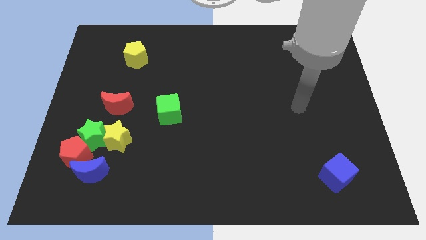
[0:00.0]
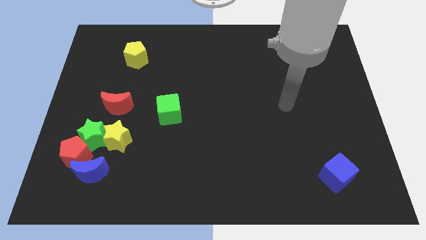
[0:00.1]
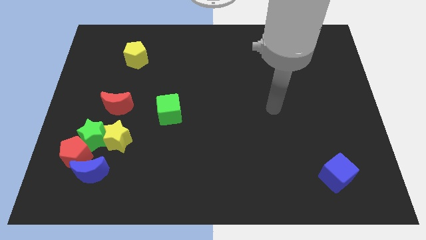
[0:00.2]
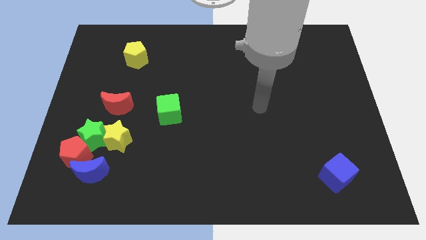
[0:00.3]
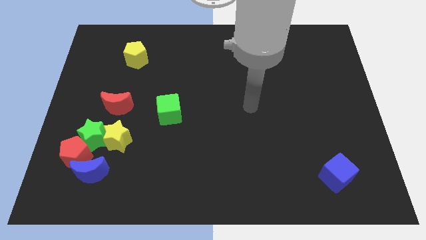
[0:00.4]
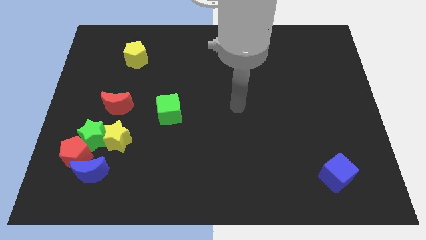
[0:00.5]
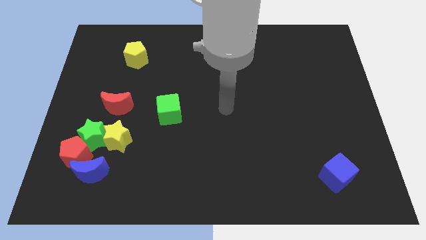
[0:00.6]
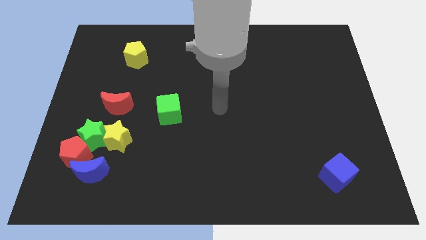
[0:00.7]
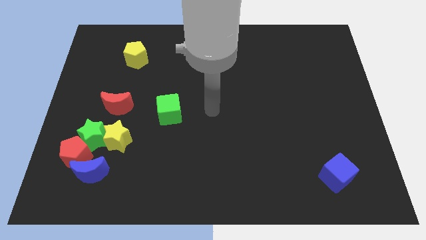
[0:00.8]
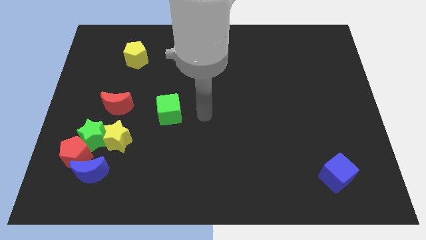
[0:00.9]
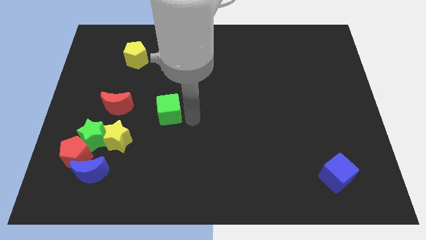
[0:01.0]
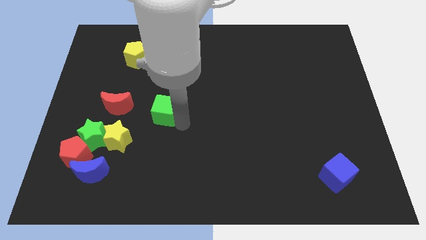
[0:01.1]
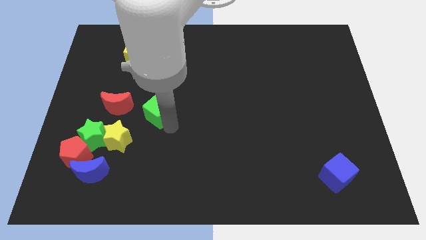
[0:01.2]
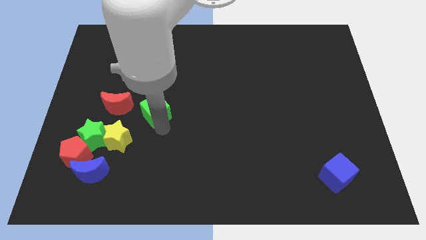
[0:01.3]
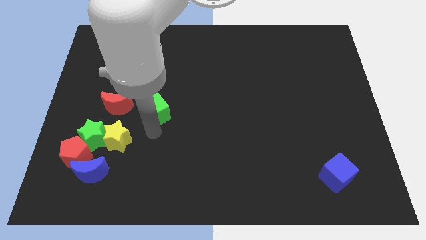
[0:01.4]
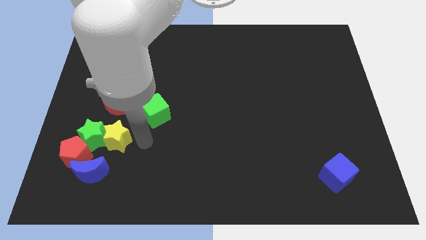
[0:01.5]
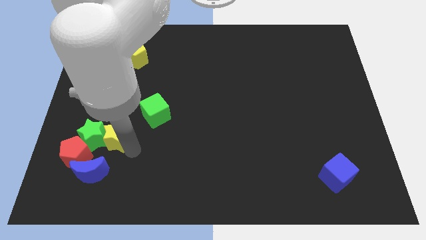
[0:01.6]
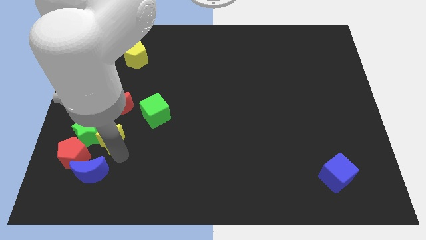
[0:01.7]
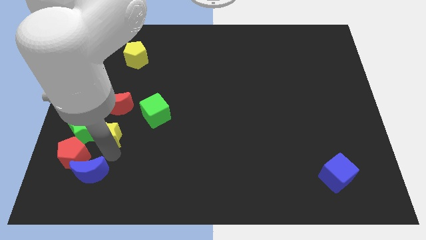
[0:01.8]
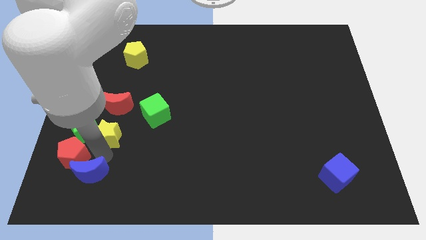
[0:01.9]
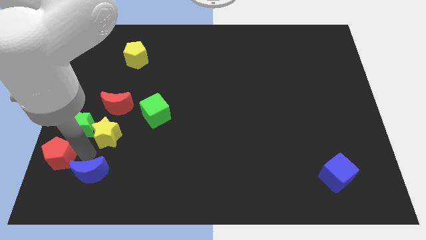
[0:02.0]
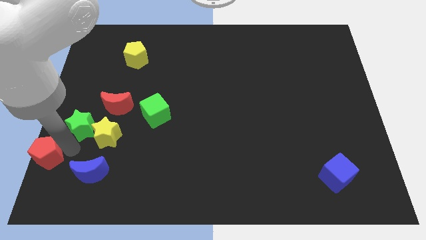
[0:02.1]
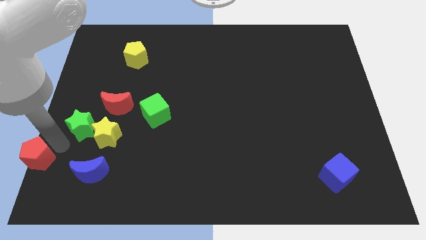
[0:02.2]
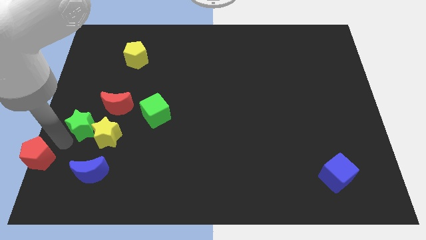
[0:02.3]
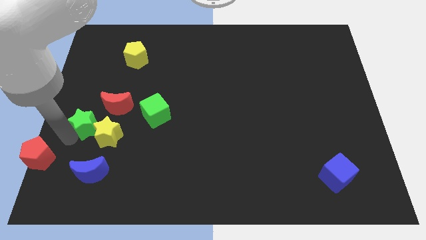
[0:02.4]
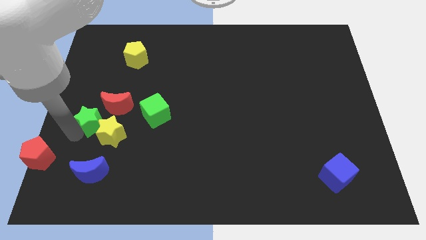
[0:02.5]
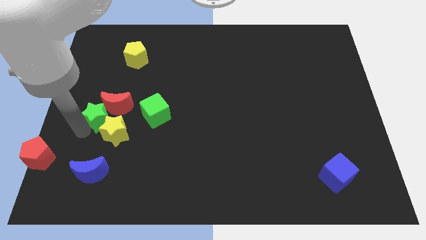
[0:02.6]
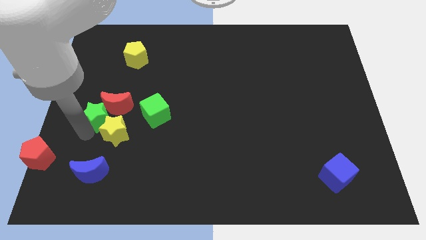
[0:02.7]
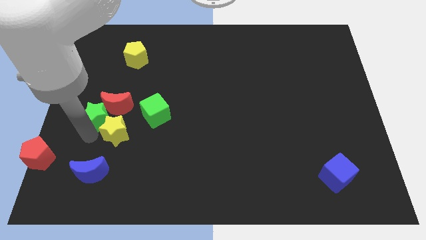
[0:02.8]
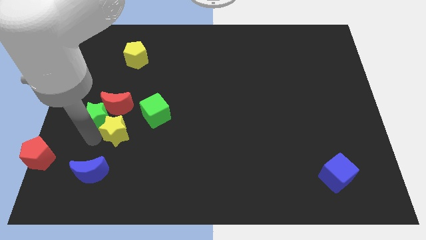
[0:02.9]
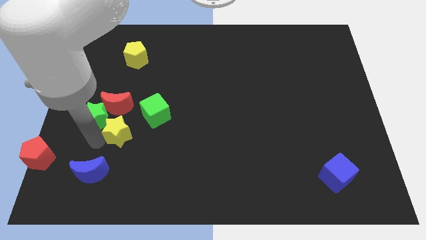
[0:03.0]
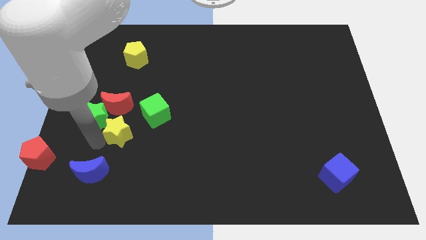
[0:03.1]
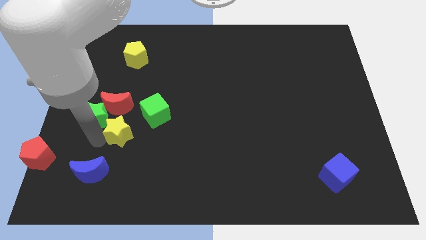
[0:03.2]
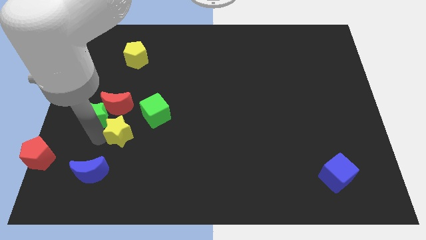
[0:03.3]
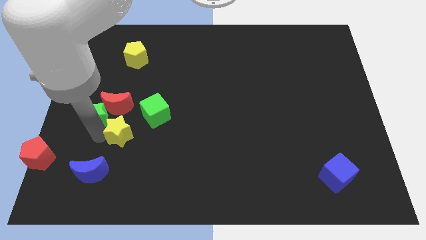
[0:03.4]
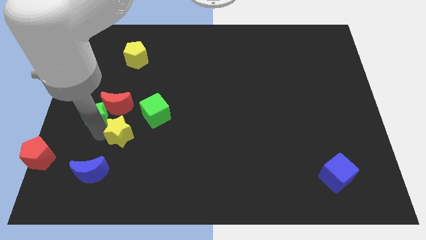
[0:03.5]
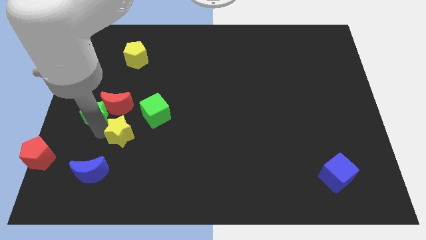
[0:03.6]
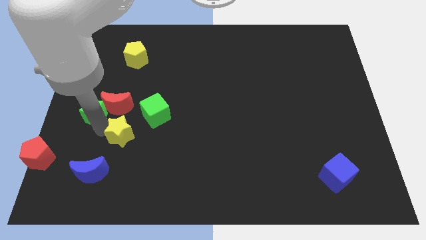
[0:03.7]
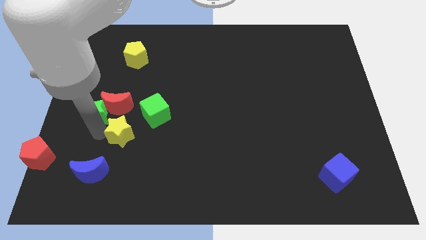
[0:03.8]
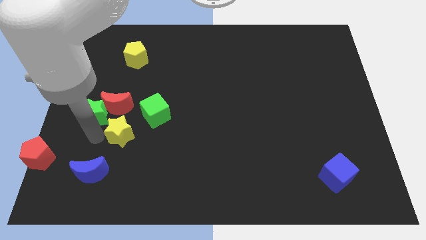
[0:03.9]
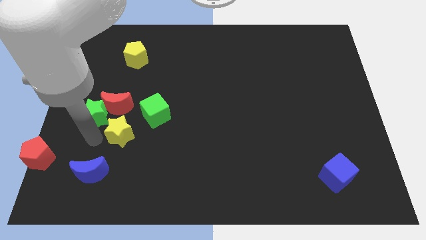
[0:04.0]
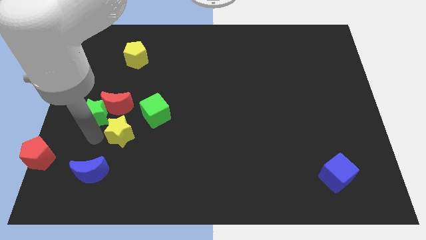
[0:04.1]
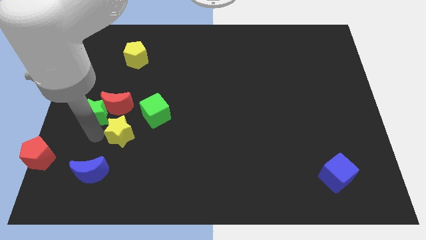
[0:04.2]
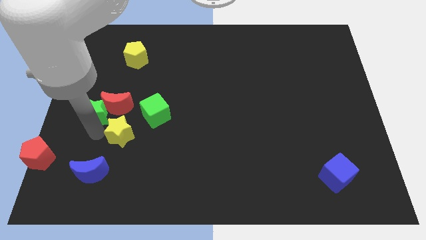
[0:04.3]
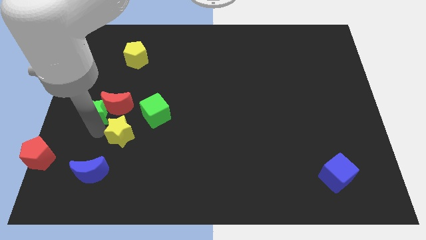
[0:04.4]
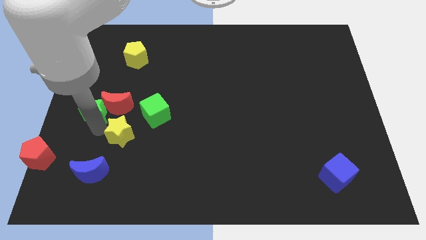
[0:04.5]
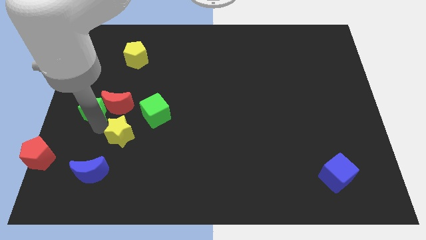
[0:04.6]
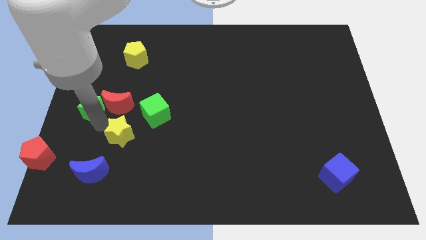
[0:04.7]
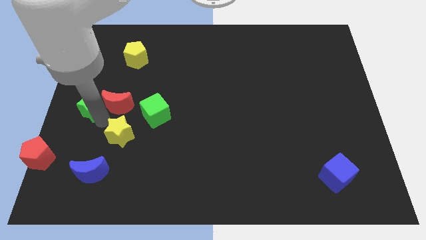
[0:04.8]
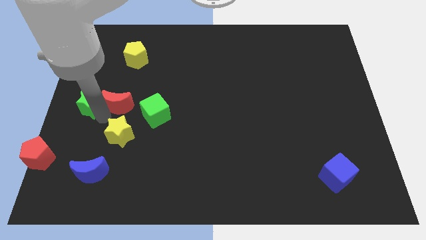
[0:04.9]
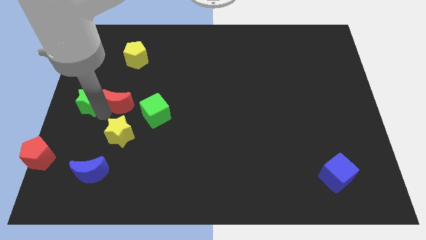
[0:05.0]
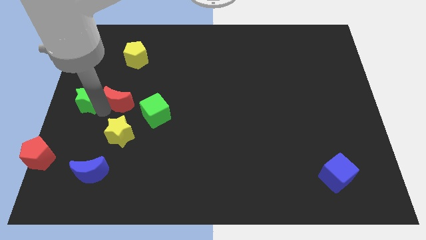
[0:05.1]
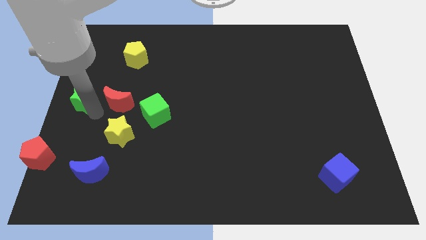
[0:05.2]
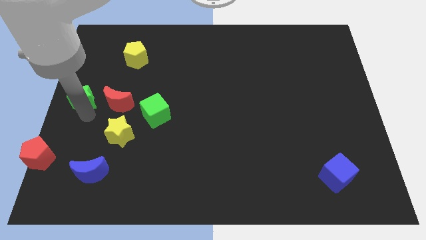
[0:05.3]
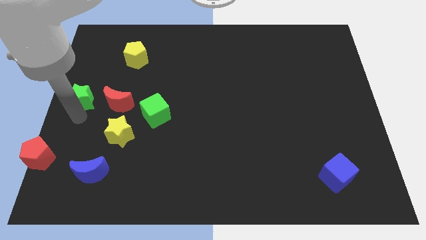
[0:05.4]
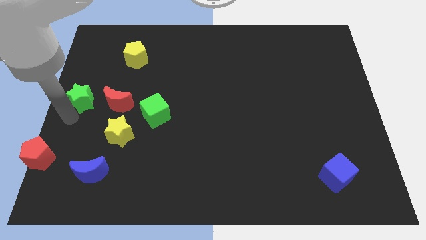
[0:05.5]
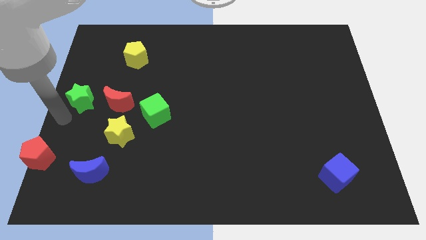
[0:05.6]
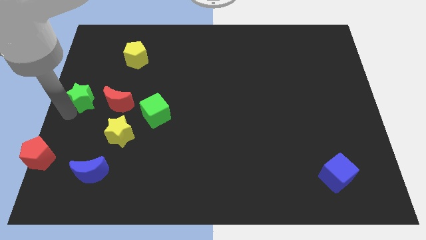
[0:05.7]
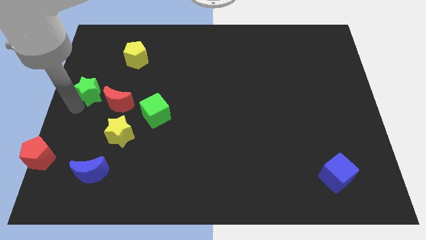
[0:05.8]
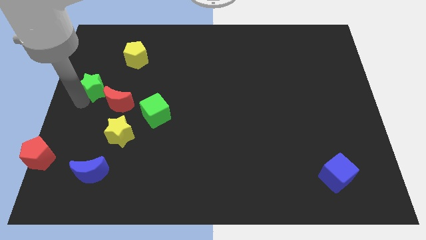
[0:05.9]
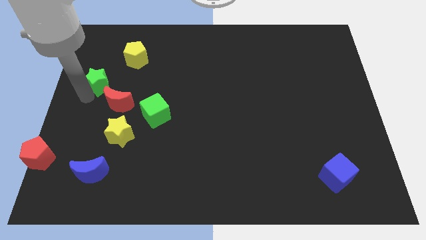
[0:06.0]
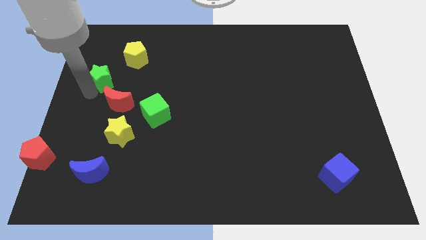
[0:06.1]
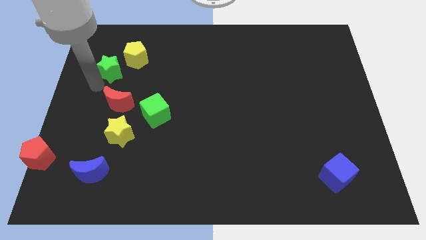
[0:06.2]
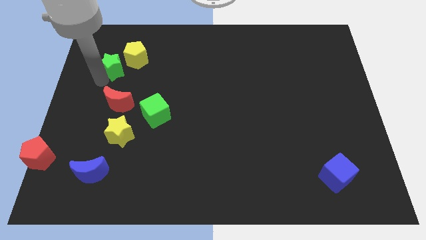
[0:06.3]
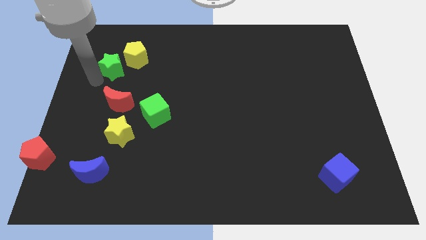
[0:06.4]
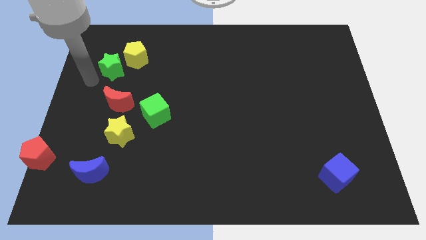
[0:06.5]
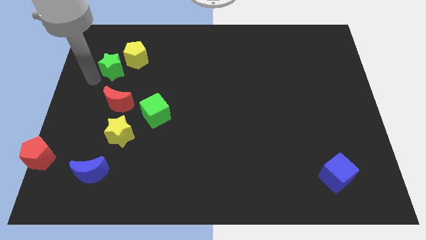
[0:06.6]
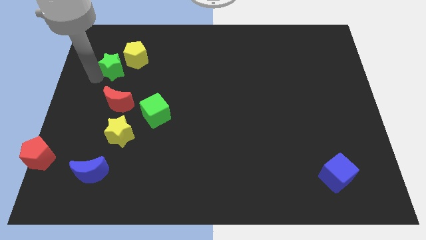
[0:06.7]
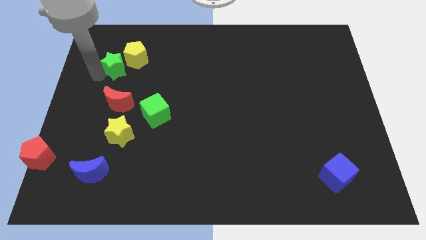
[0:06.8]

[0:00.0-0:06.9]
move the green star next to the yellow pentagon

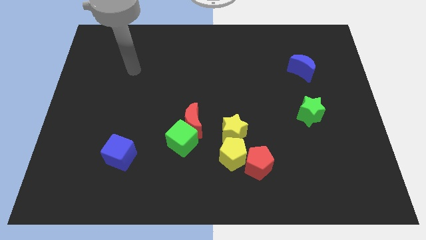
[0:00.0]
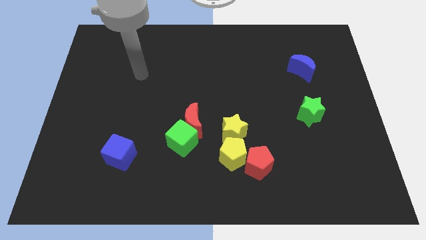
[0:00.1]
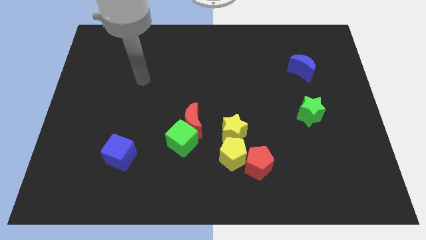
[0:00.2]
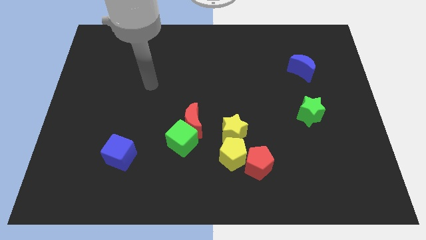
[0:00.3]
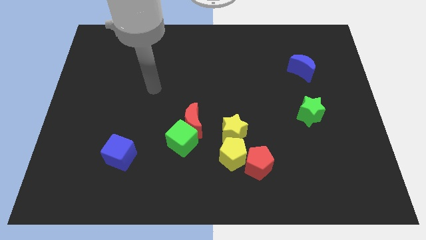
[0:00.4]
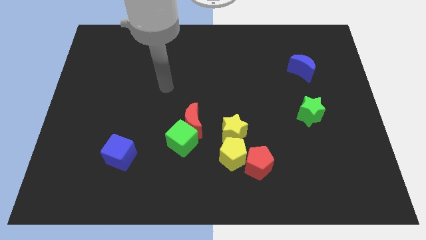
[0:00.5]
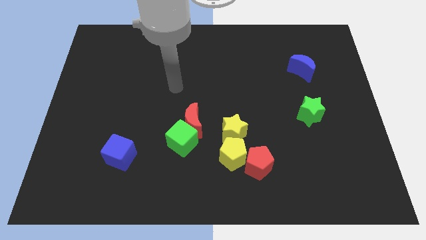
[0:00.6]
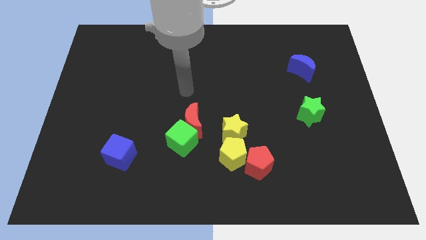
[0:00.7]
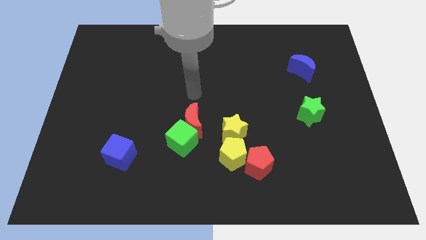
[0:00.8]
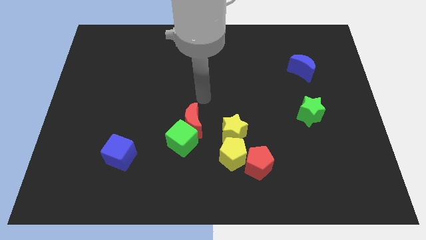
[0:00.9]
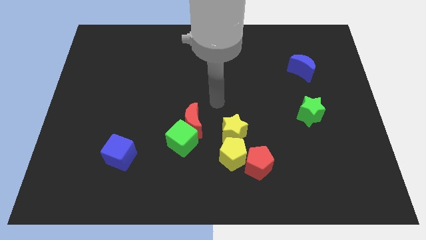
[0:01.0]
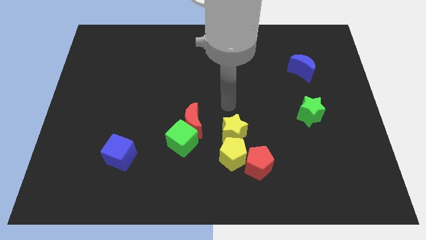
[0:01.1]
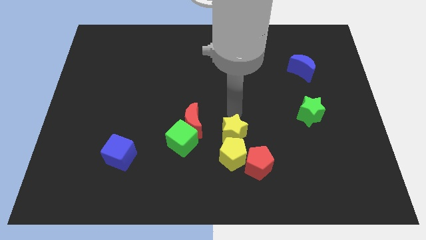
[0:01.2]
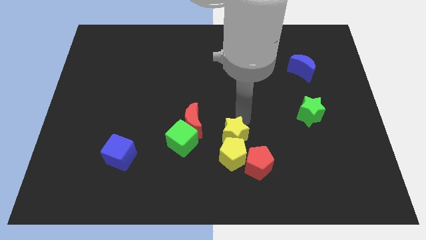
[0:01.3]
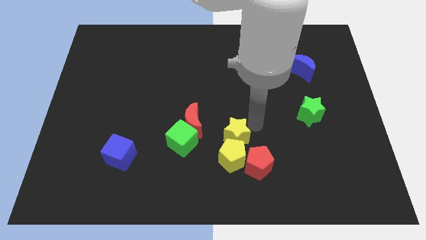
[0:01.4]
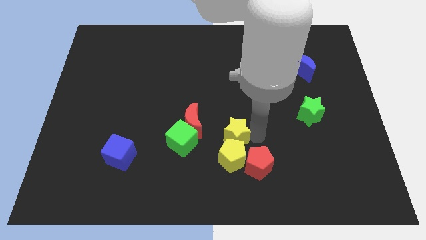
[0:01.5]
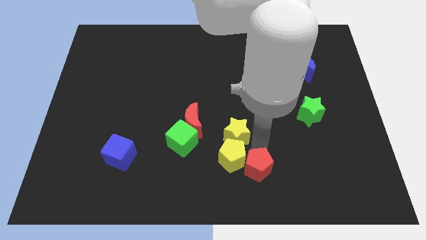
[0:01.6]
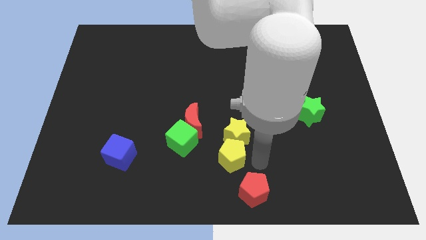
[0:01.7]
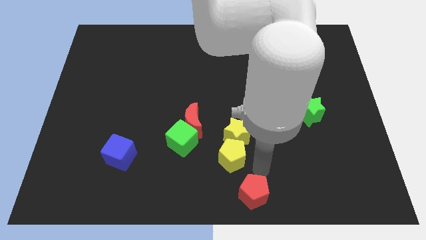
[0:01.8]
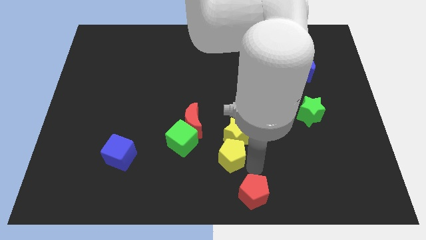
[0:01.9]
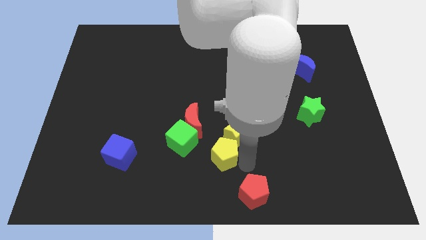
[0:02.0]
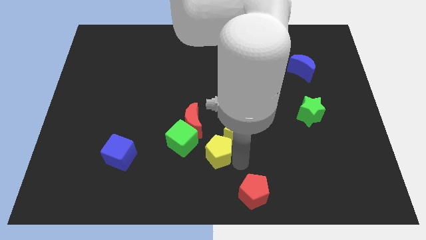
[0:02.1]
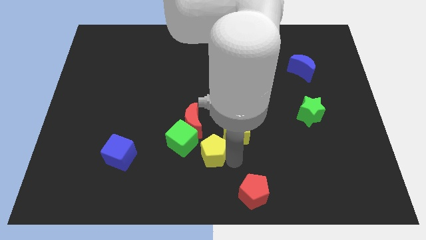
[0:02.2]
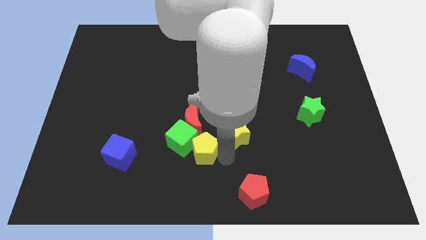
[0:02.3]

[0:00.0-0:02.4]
put the yellow pentagon towards the green cube
